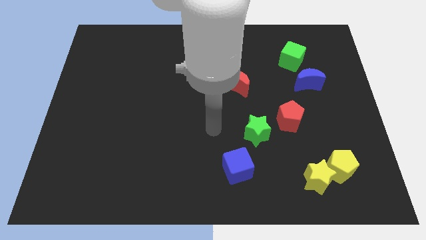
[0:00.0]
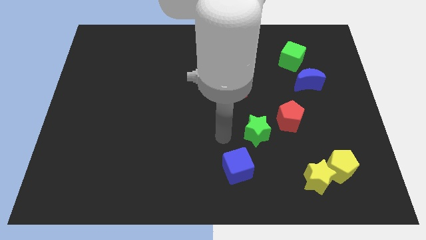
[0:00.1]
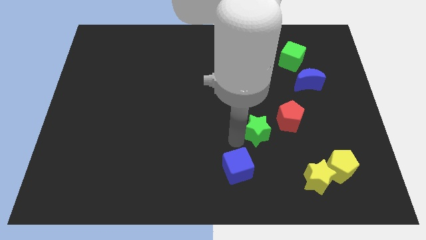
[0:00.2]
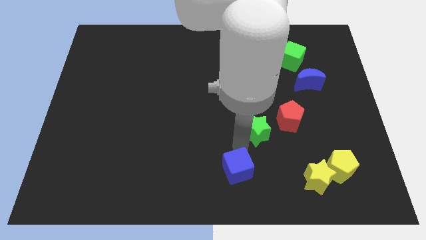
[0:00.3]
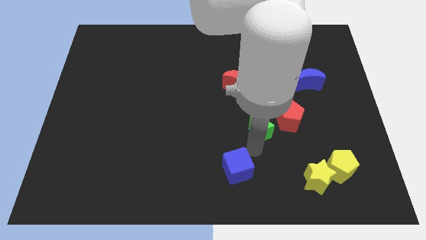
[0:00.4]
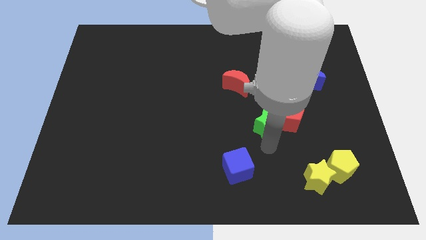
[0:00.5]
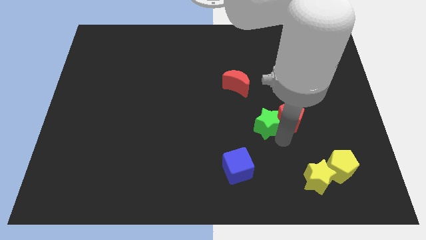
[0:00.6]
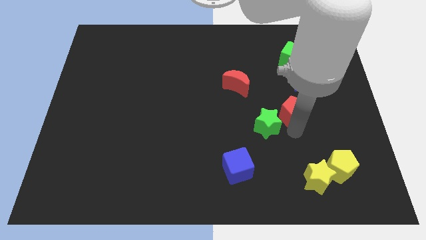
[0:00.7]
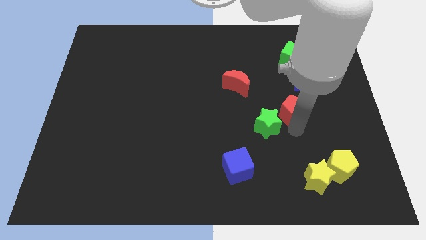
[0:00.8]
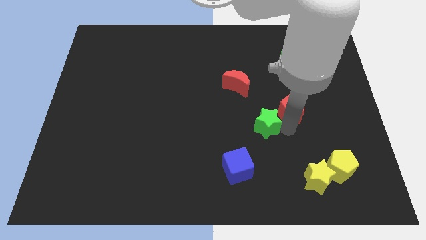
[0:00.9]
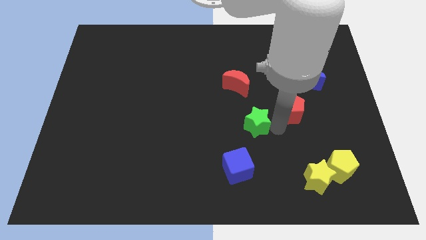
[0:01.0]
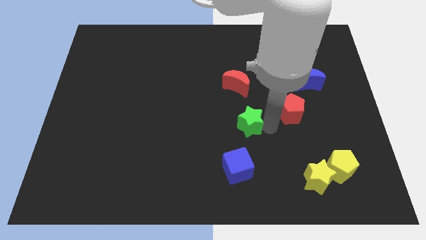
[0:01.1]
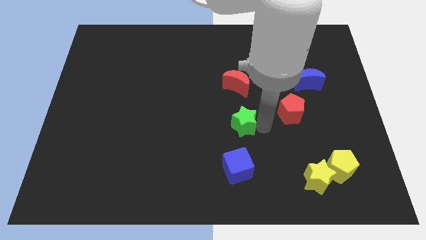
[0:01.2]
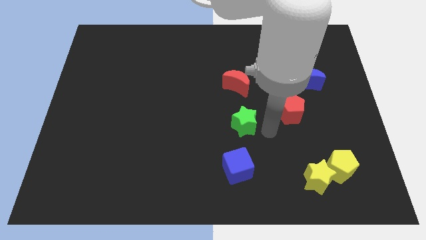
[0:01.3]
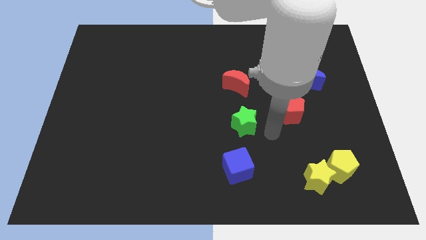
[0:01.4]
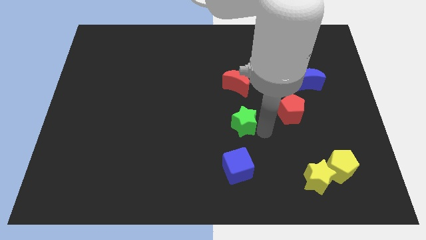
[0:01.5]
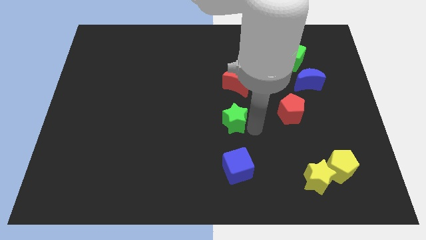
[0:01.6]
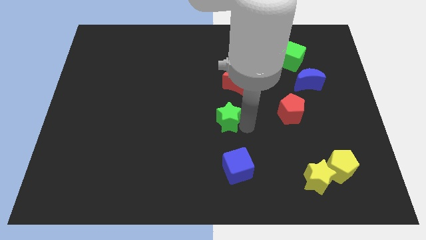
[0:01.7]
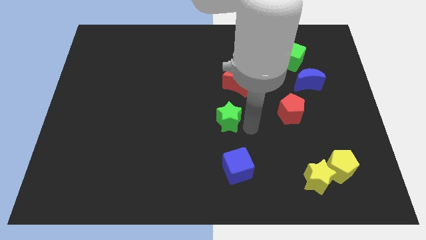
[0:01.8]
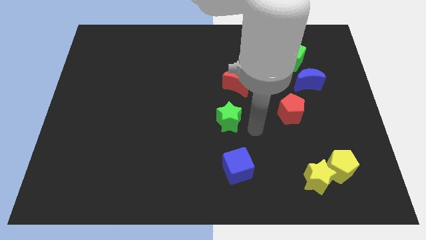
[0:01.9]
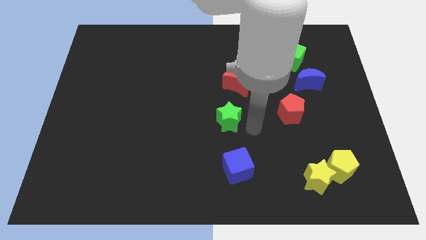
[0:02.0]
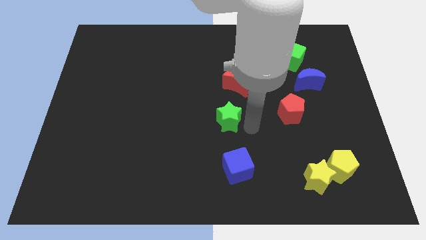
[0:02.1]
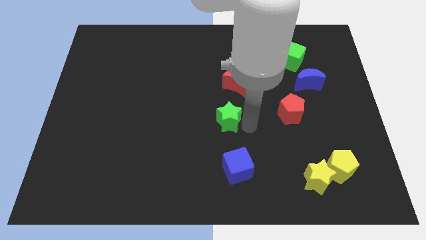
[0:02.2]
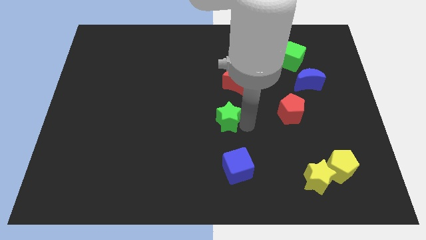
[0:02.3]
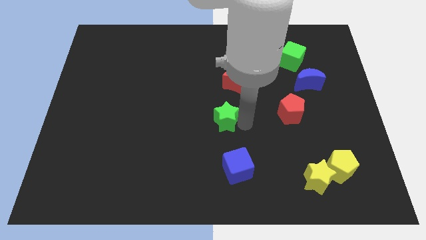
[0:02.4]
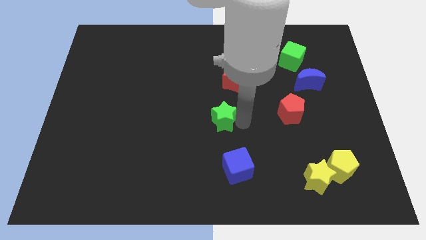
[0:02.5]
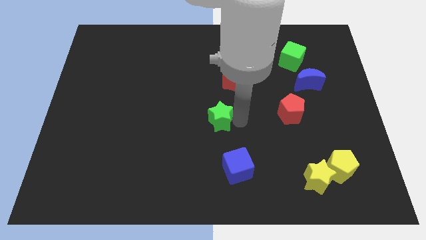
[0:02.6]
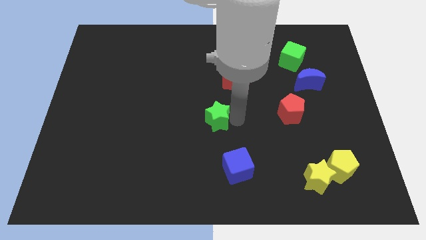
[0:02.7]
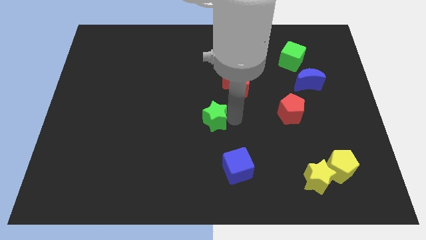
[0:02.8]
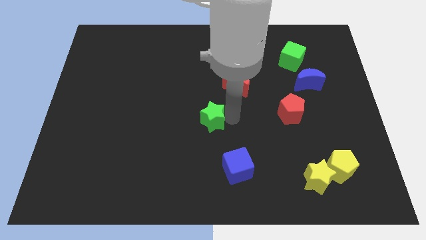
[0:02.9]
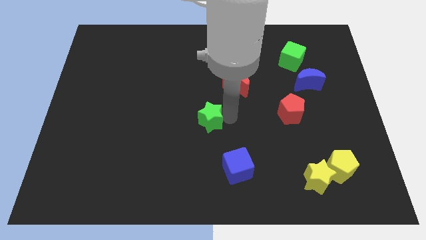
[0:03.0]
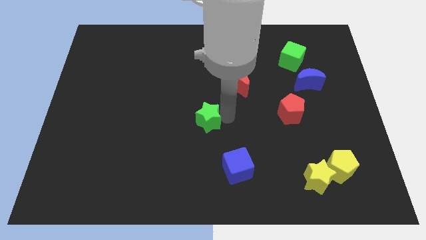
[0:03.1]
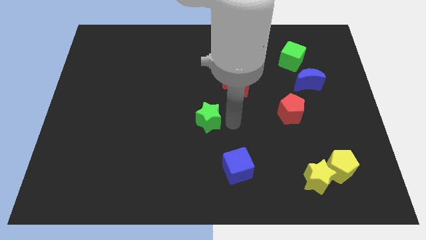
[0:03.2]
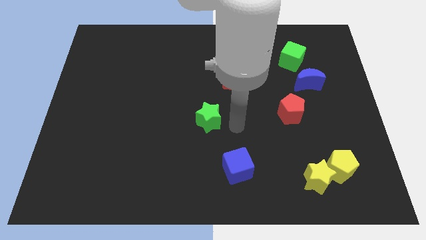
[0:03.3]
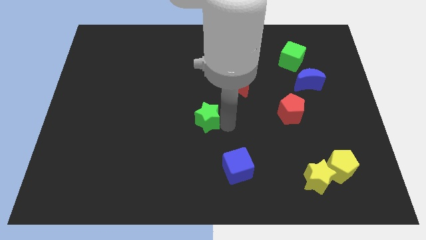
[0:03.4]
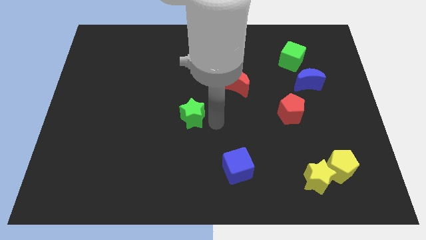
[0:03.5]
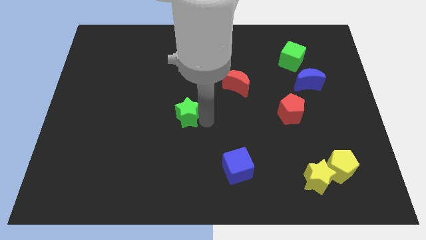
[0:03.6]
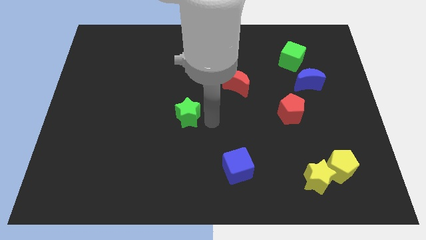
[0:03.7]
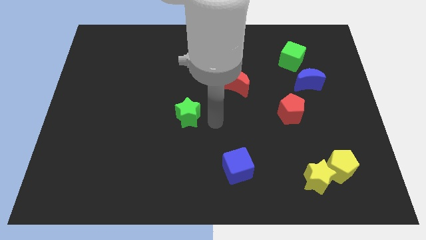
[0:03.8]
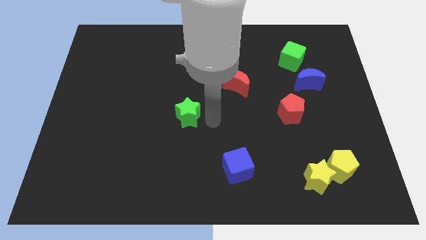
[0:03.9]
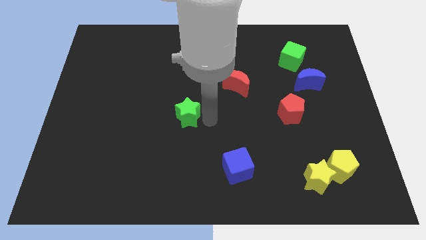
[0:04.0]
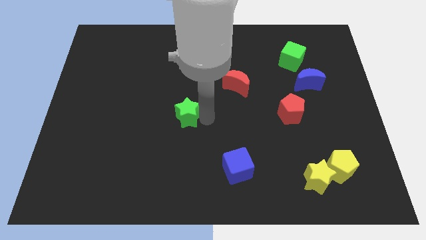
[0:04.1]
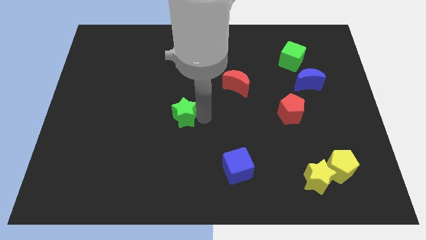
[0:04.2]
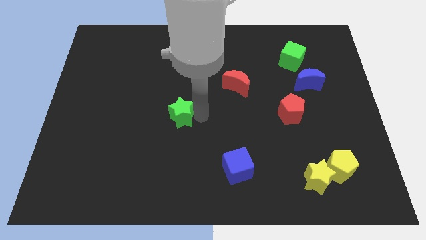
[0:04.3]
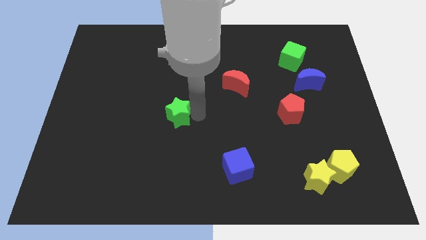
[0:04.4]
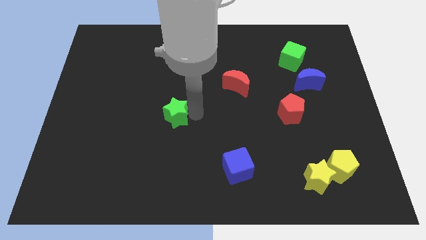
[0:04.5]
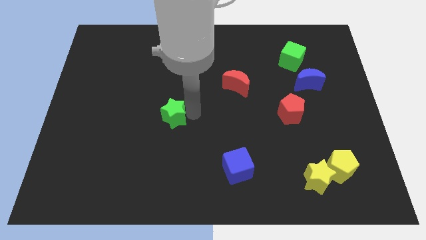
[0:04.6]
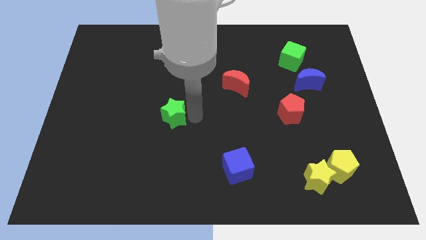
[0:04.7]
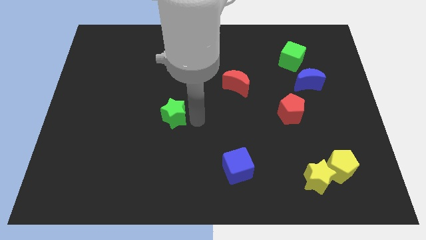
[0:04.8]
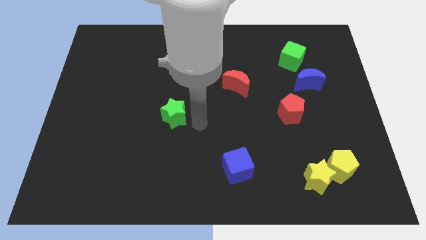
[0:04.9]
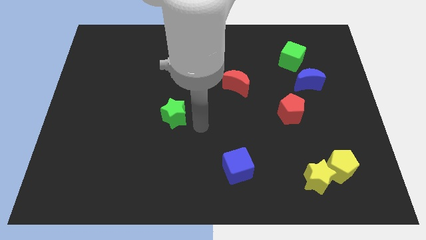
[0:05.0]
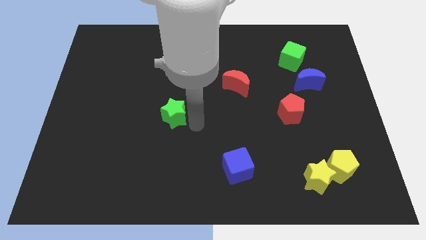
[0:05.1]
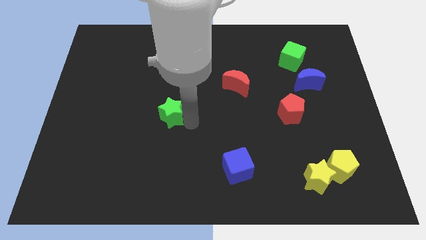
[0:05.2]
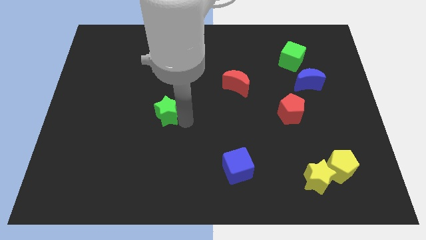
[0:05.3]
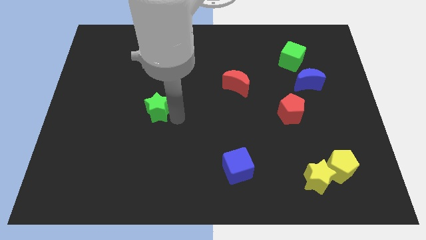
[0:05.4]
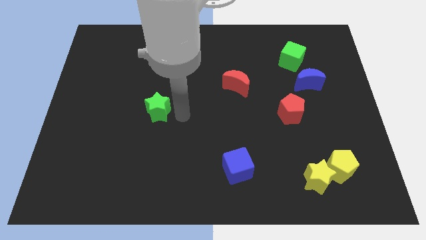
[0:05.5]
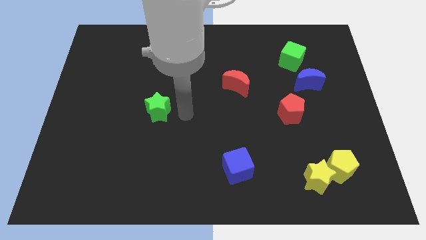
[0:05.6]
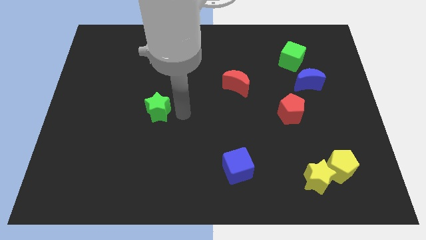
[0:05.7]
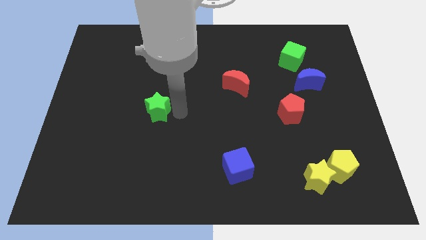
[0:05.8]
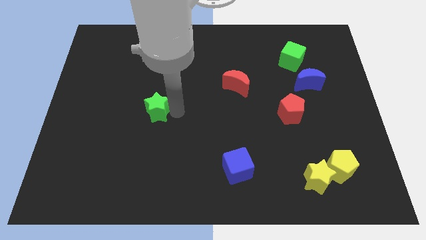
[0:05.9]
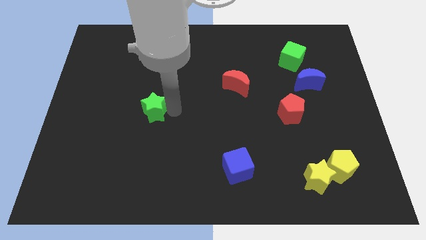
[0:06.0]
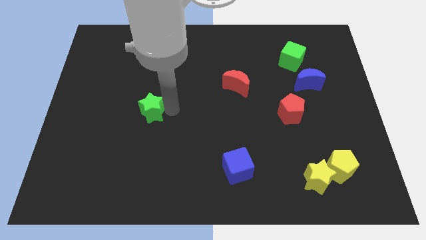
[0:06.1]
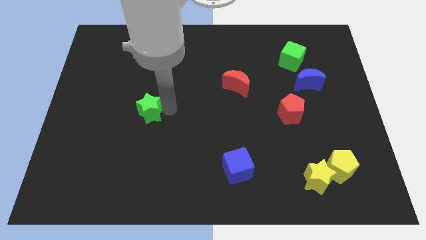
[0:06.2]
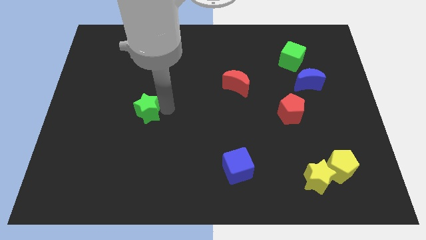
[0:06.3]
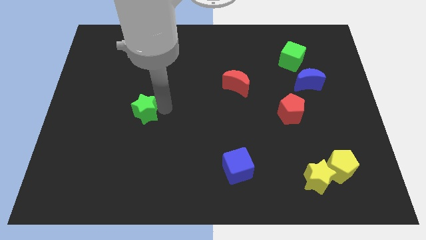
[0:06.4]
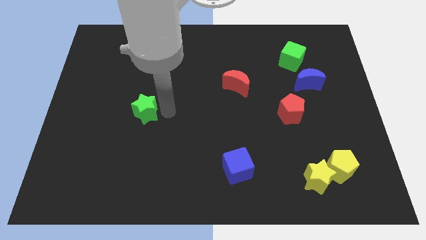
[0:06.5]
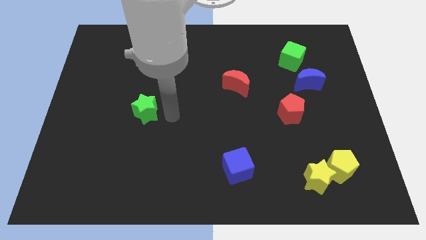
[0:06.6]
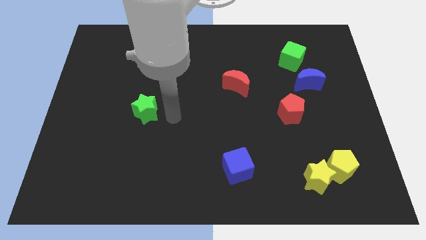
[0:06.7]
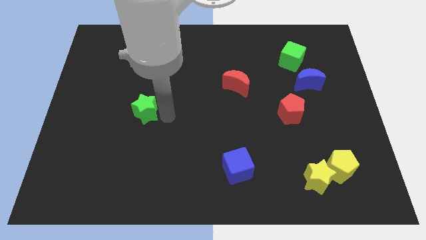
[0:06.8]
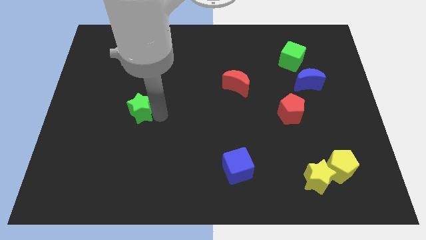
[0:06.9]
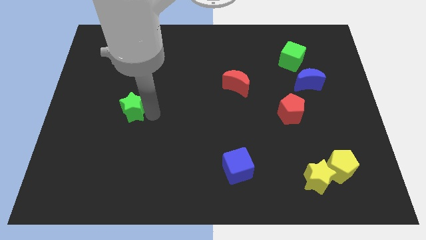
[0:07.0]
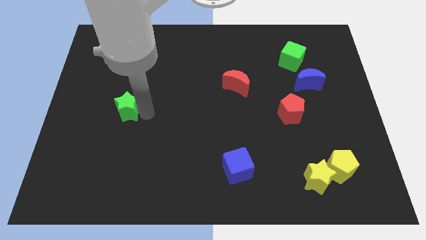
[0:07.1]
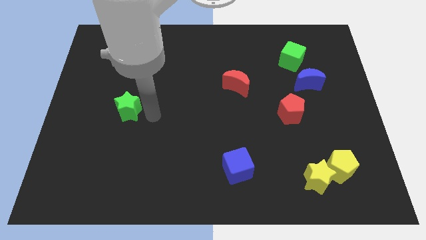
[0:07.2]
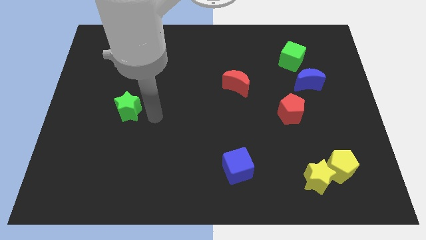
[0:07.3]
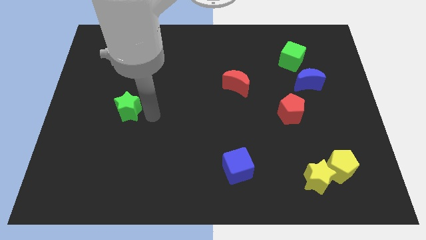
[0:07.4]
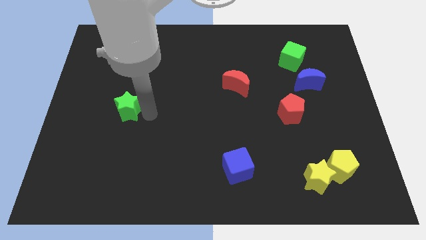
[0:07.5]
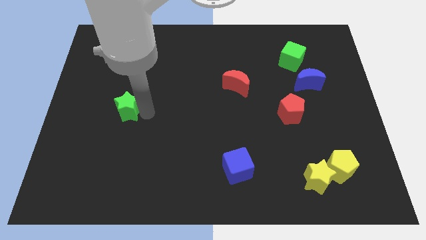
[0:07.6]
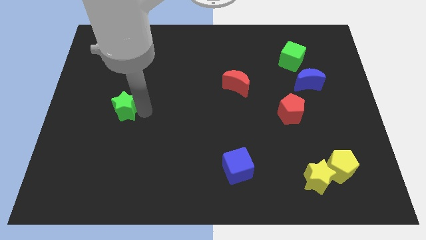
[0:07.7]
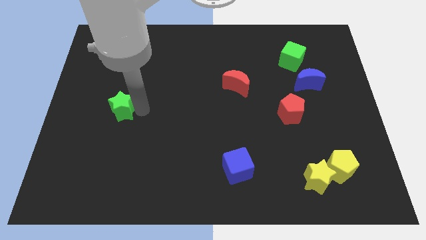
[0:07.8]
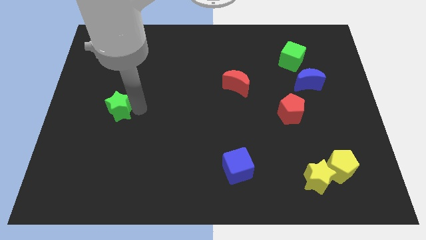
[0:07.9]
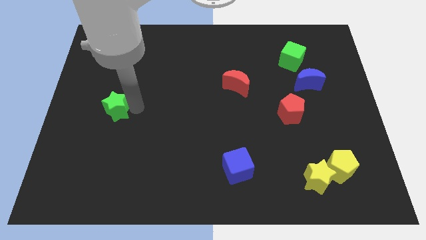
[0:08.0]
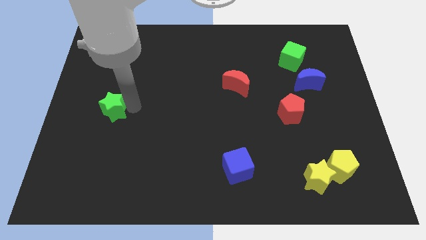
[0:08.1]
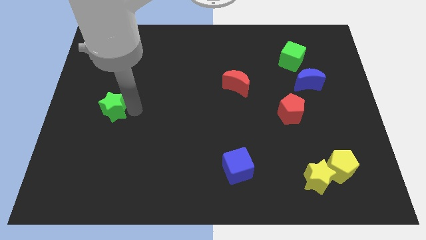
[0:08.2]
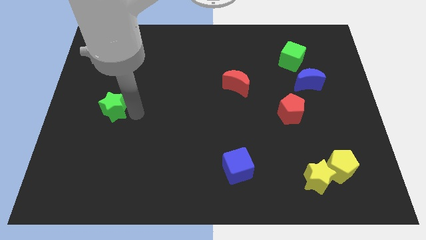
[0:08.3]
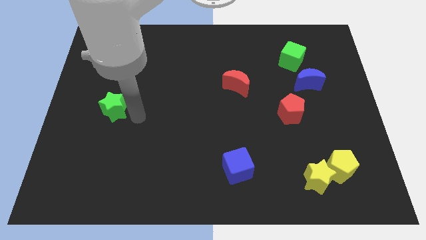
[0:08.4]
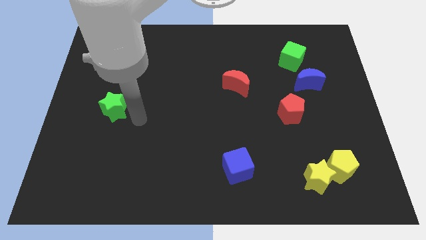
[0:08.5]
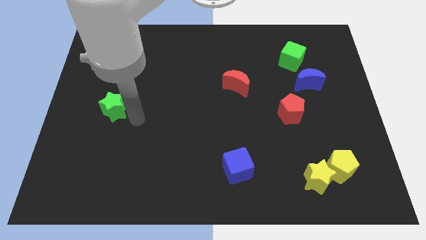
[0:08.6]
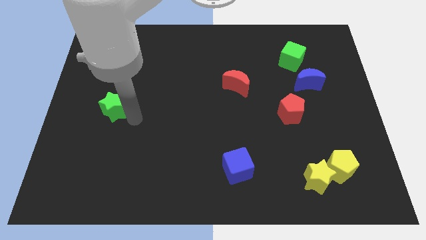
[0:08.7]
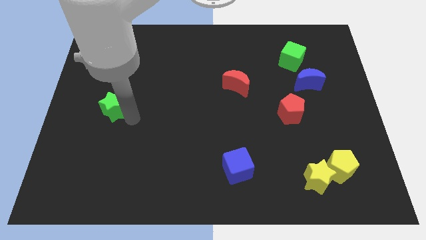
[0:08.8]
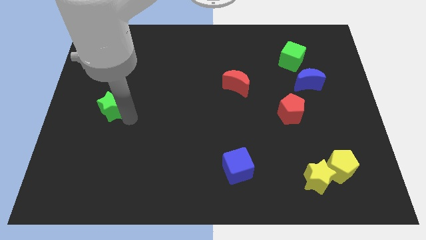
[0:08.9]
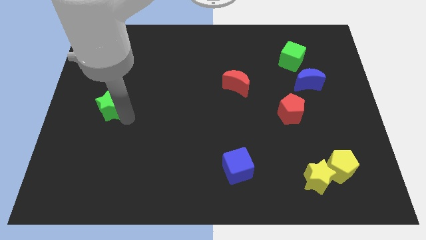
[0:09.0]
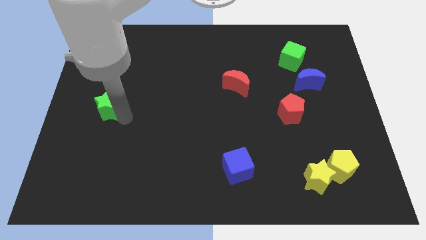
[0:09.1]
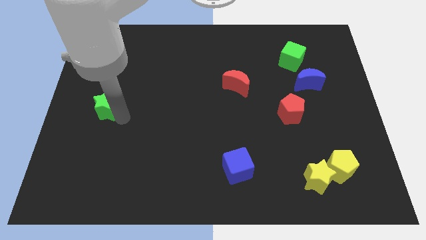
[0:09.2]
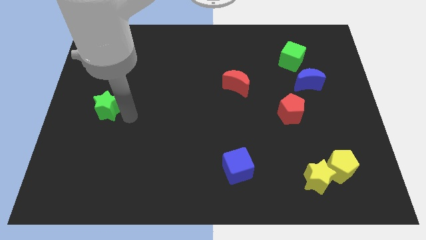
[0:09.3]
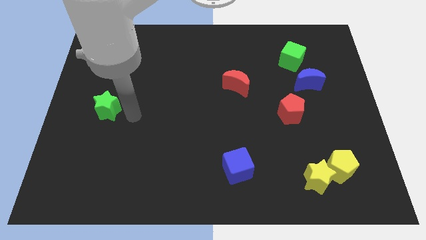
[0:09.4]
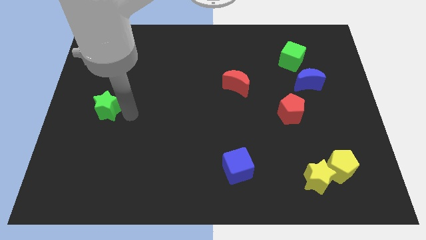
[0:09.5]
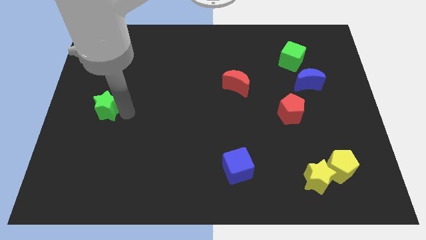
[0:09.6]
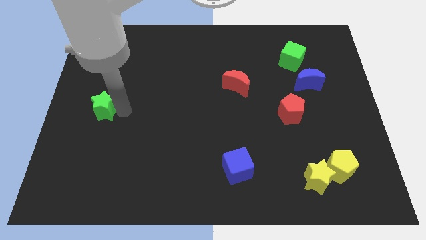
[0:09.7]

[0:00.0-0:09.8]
put the green star to the left side of the board
